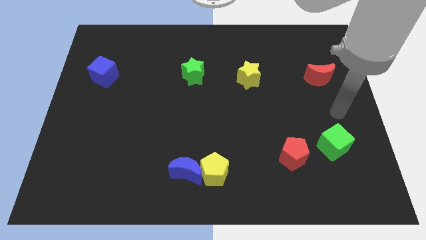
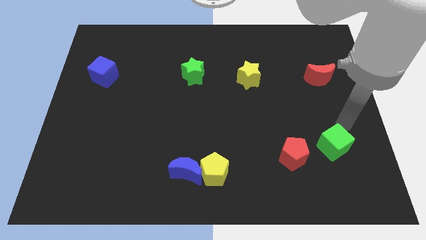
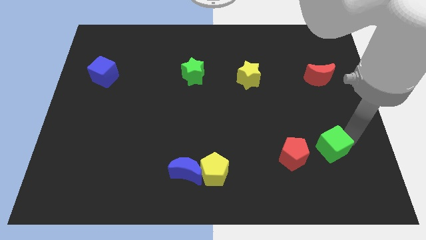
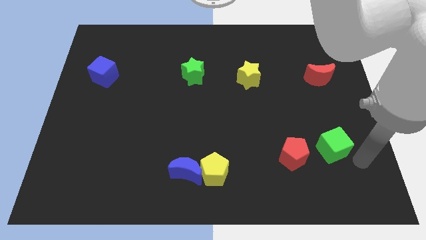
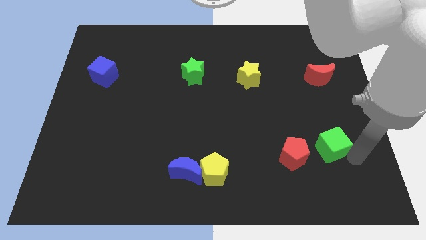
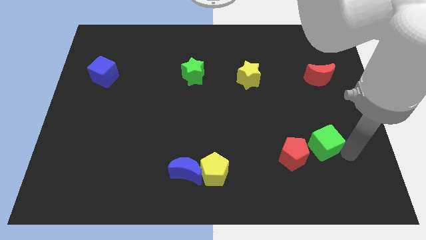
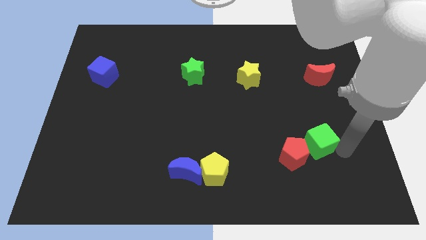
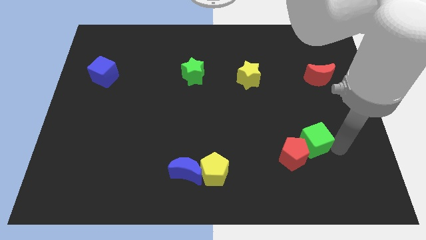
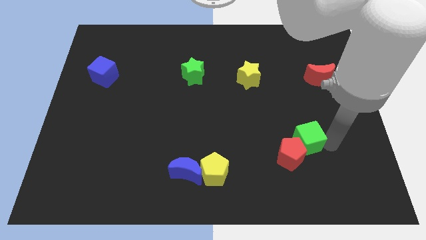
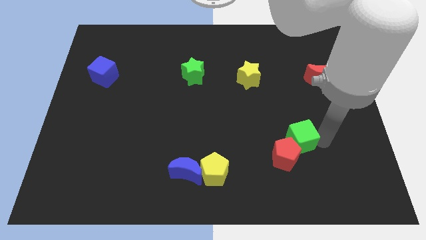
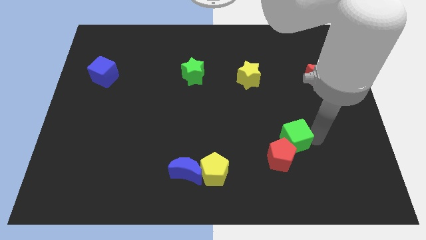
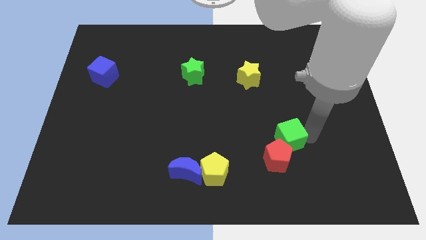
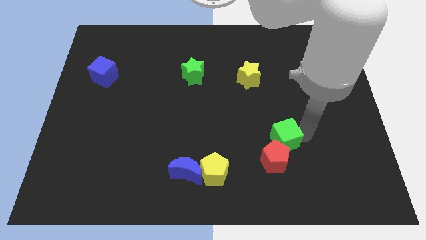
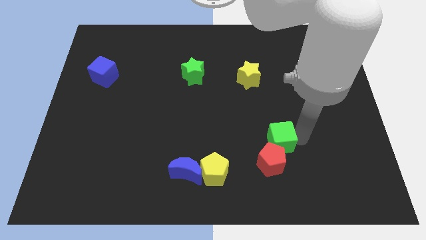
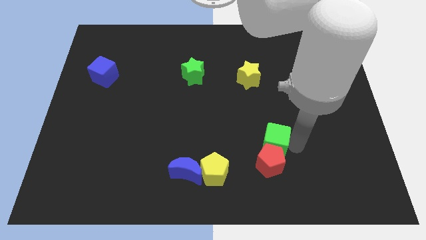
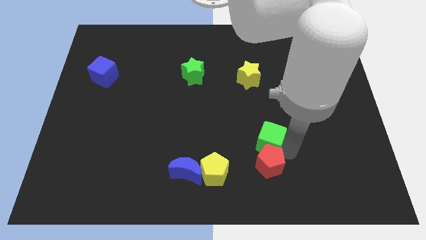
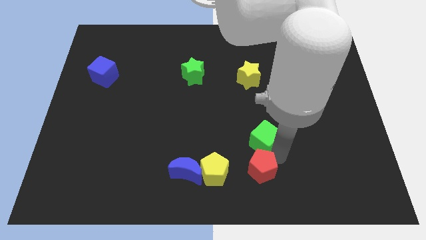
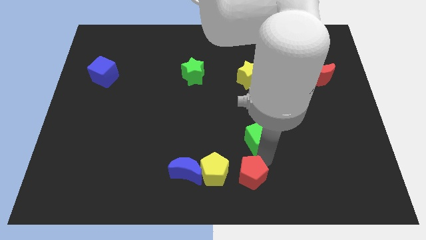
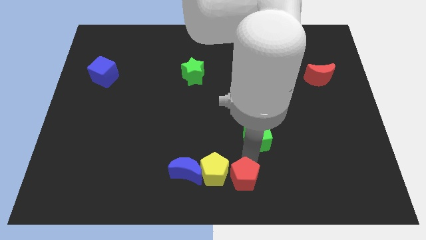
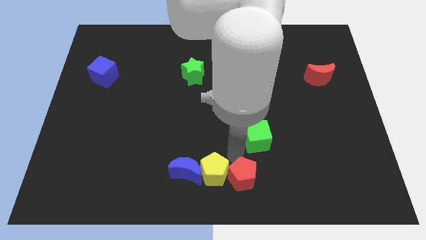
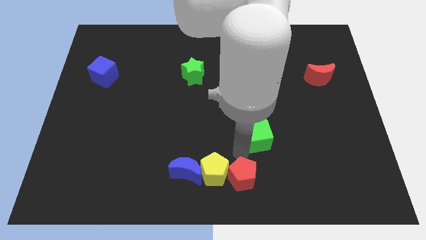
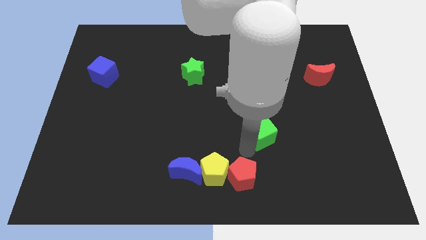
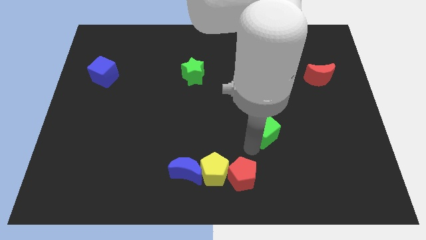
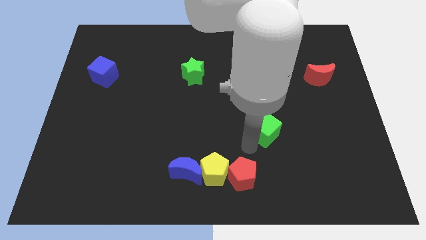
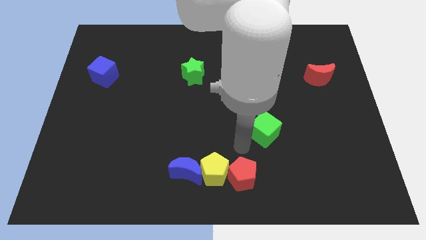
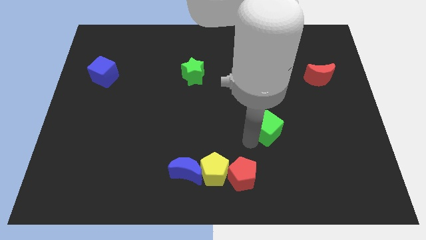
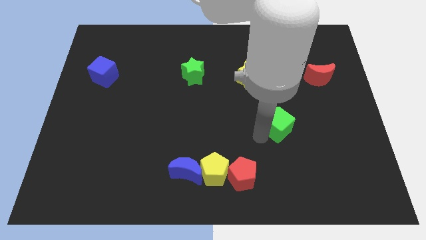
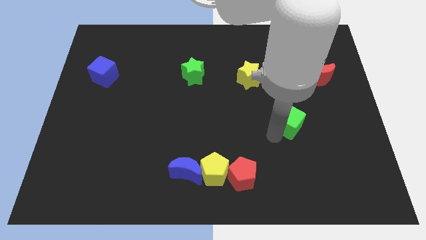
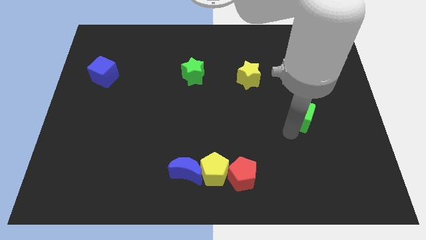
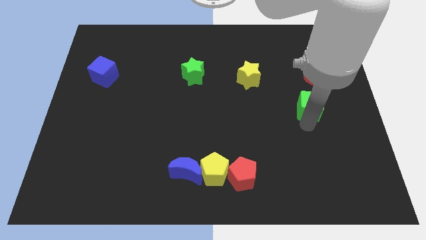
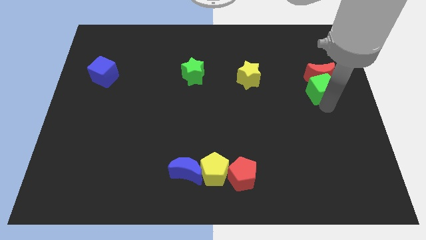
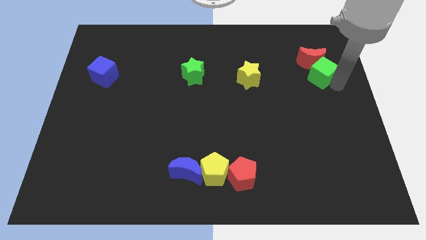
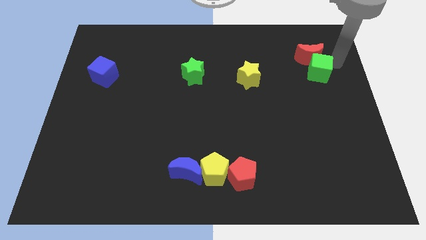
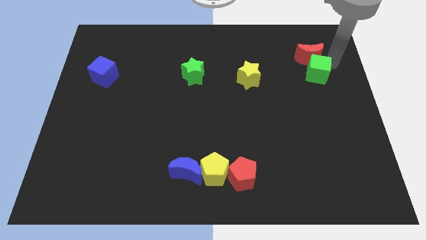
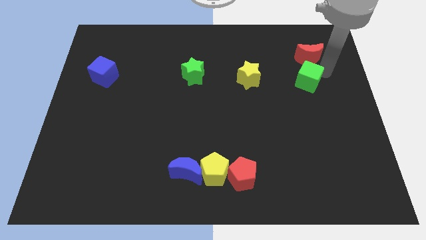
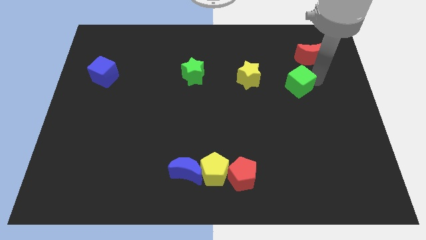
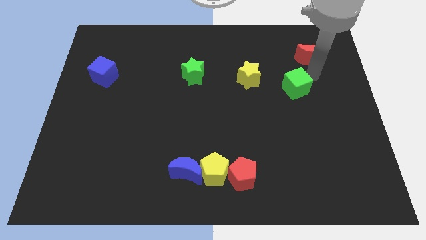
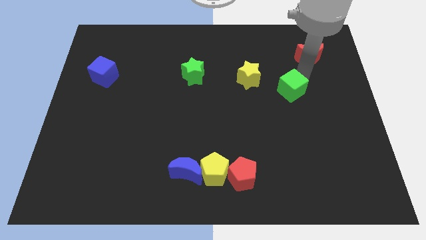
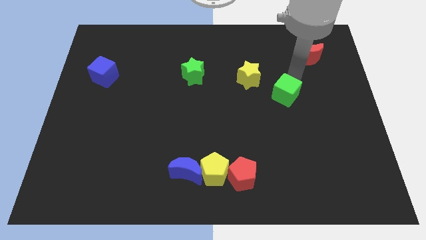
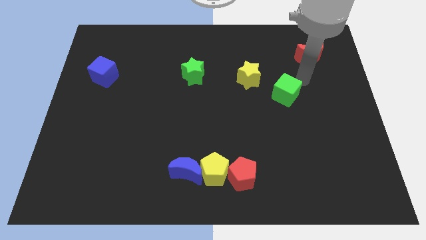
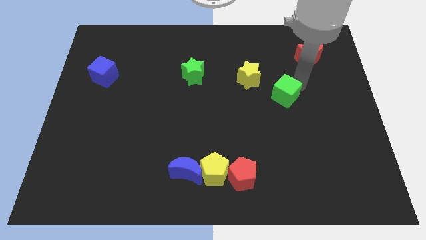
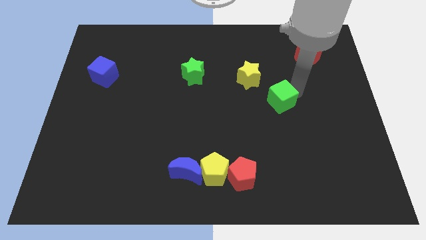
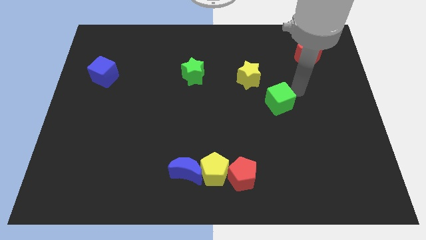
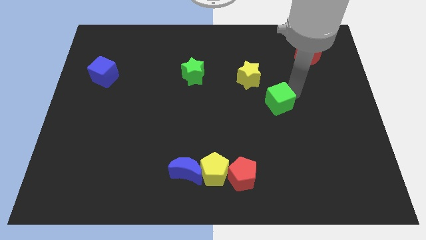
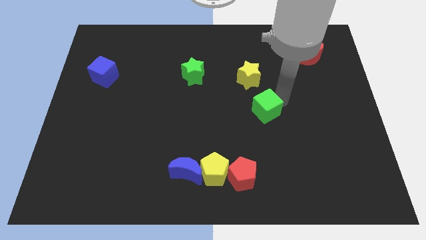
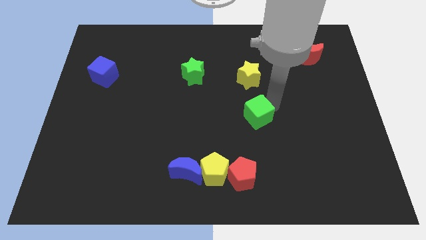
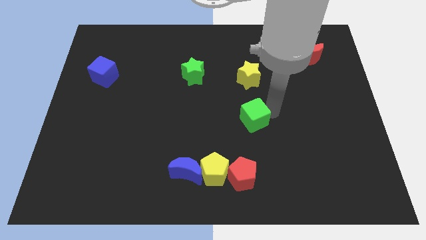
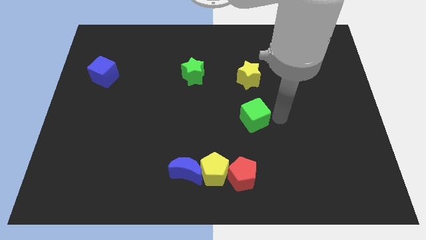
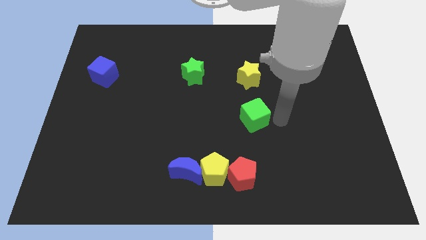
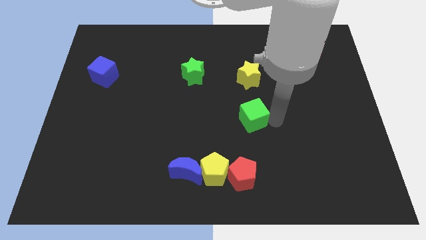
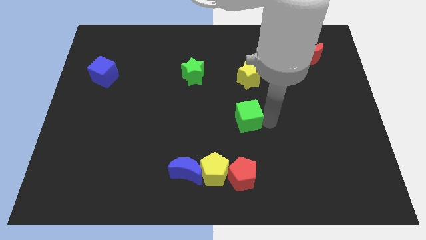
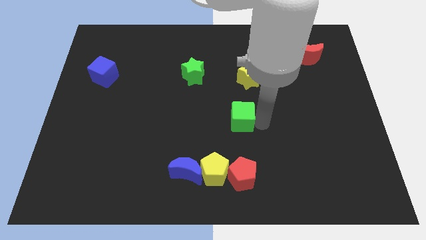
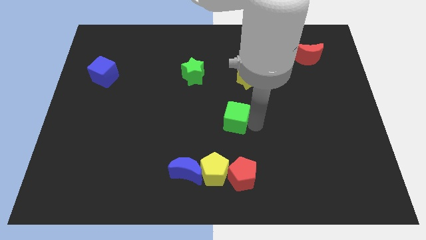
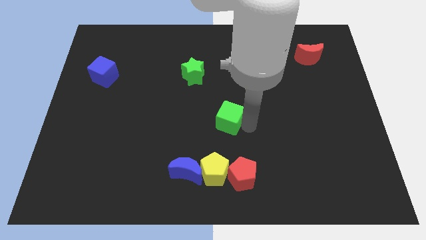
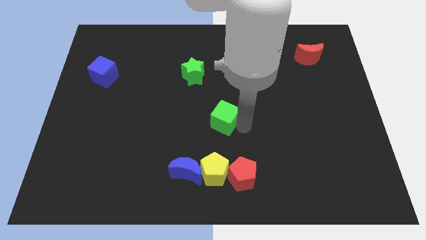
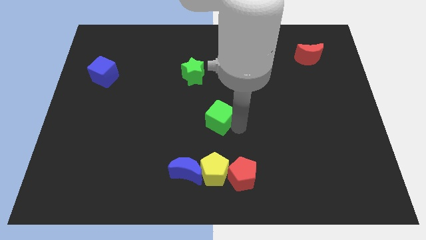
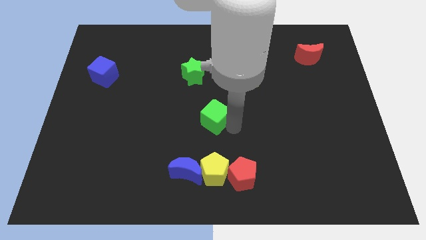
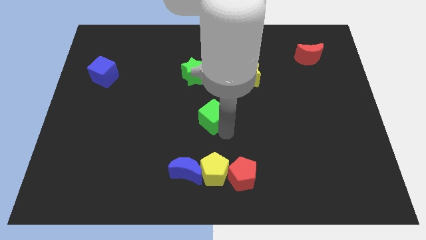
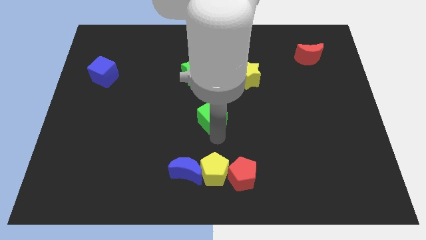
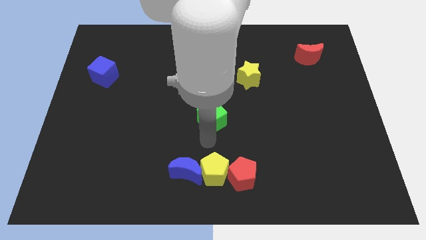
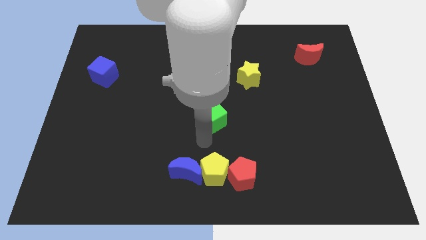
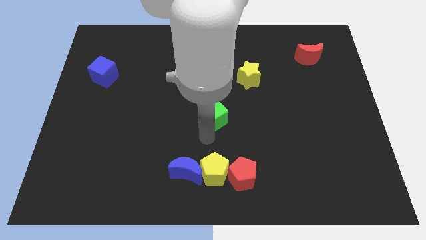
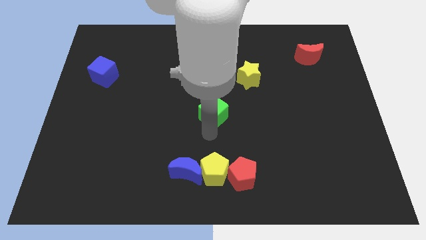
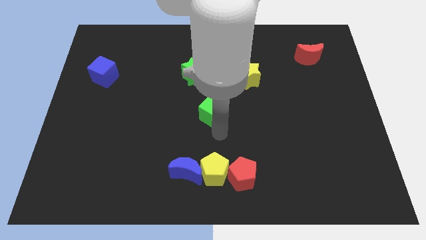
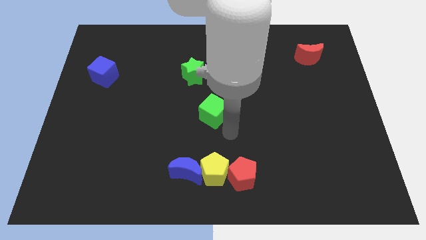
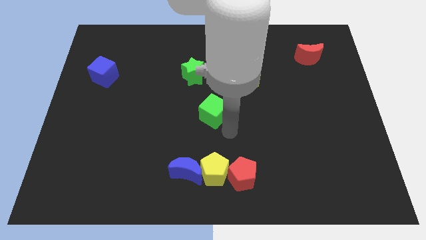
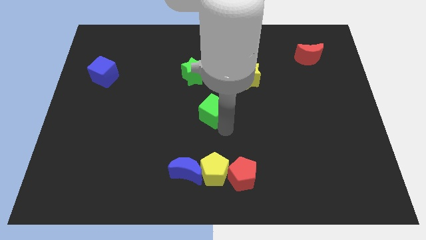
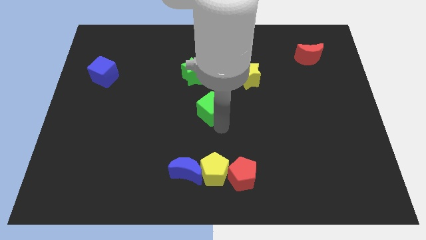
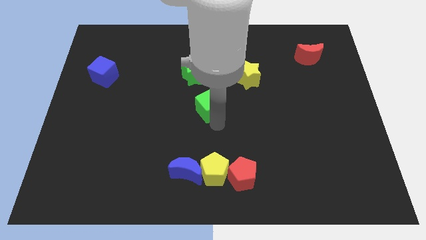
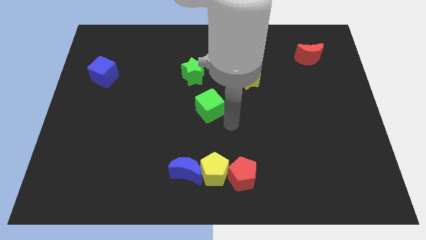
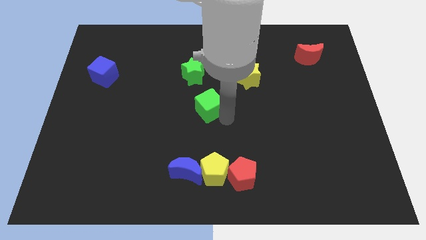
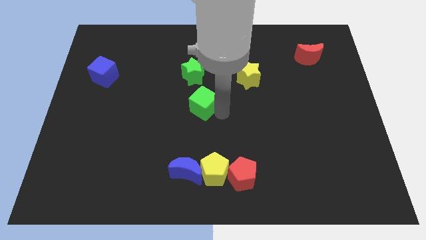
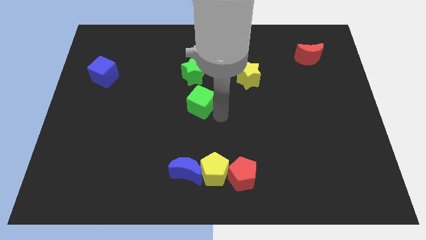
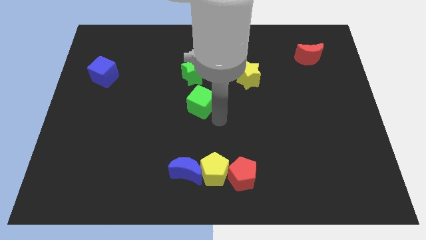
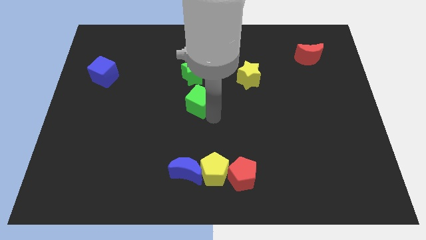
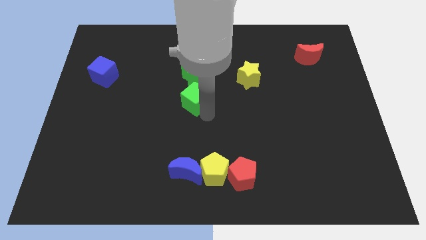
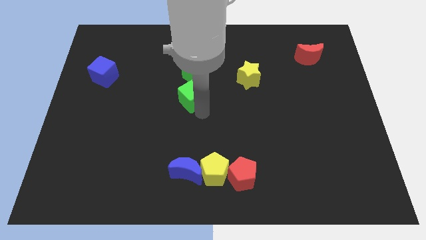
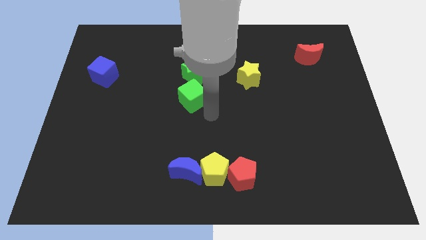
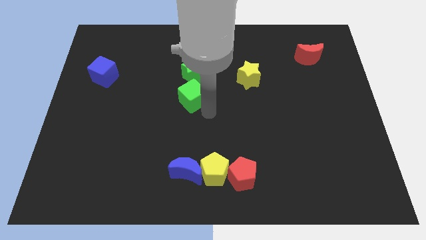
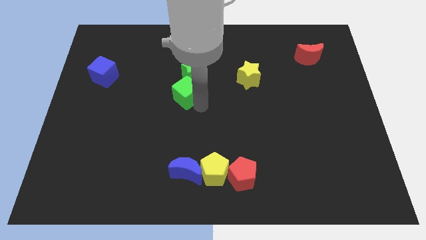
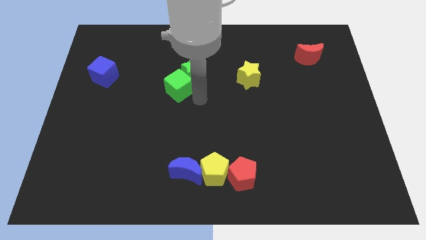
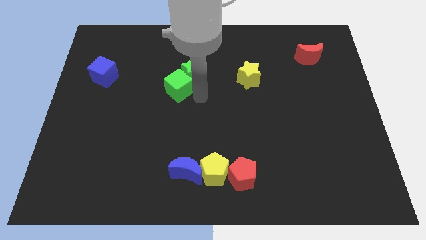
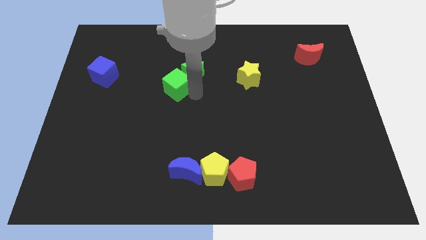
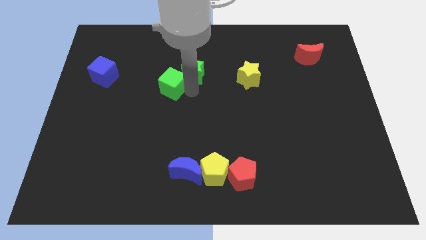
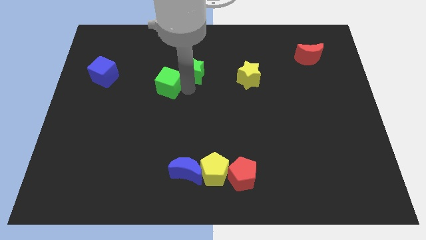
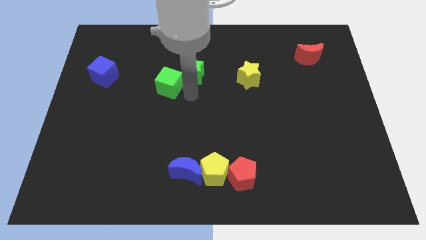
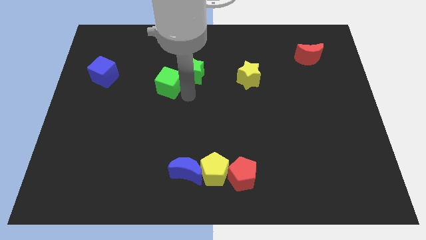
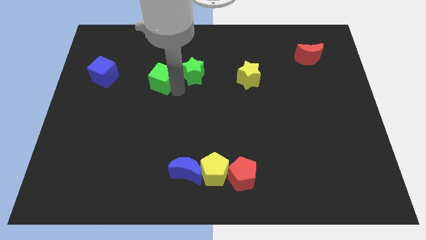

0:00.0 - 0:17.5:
push the green cube just right of the blue cube
